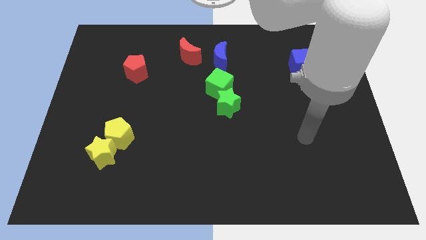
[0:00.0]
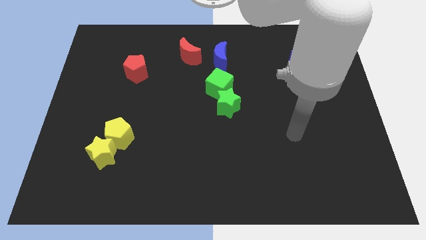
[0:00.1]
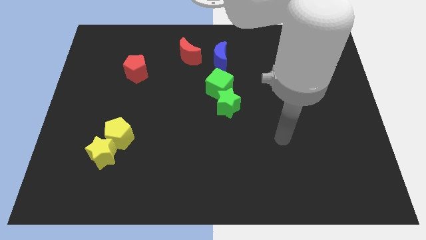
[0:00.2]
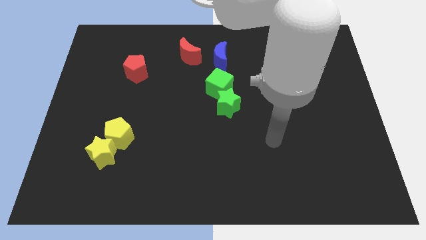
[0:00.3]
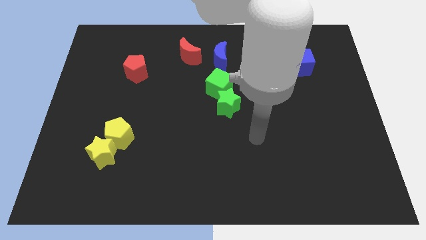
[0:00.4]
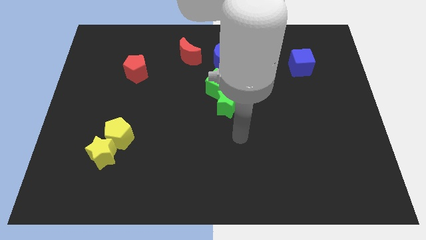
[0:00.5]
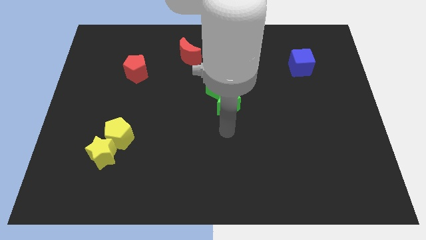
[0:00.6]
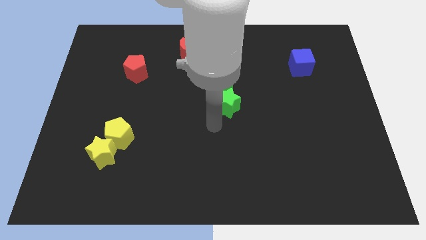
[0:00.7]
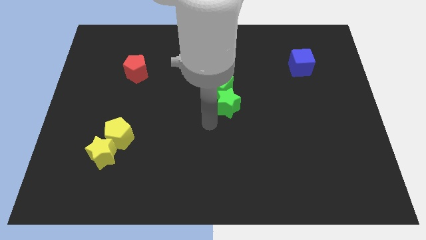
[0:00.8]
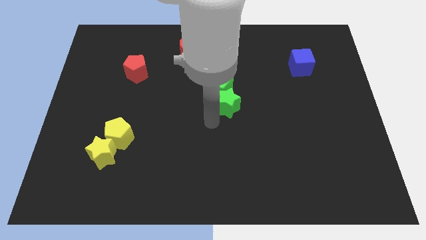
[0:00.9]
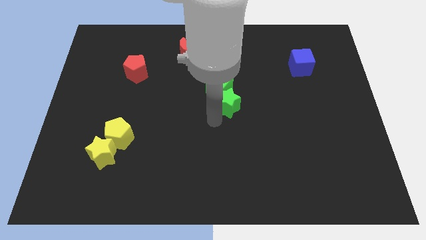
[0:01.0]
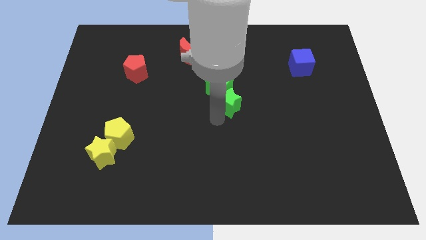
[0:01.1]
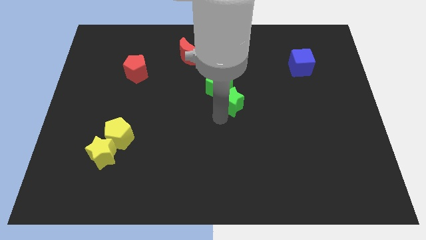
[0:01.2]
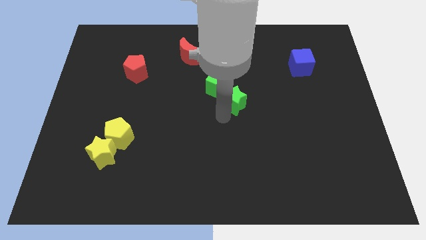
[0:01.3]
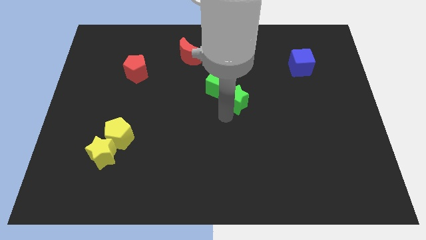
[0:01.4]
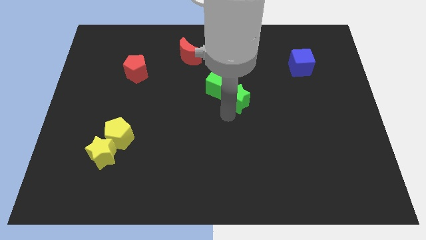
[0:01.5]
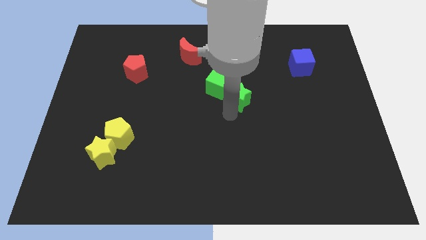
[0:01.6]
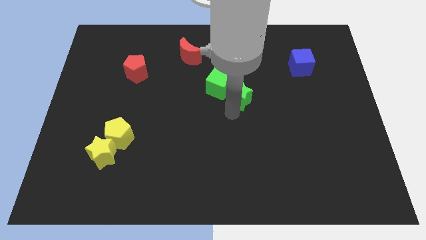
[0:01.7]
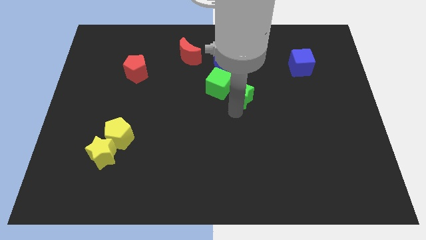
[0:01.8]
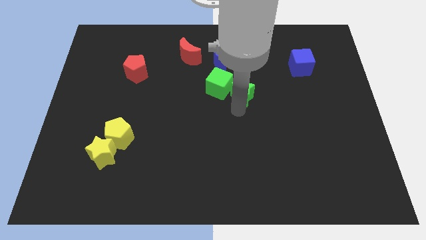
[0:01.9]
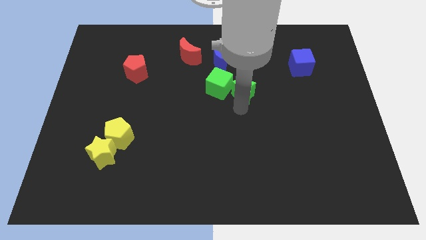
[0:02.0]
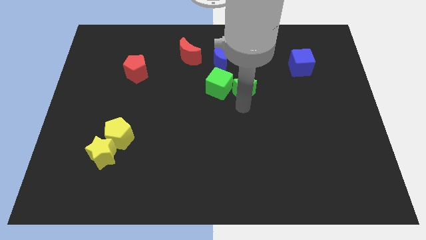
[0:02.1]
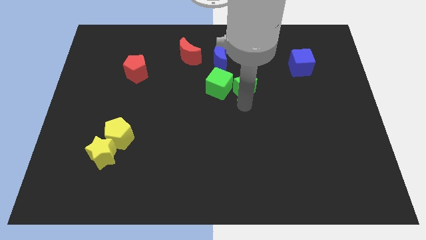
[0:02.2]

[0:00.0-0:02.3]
slide the green star upwards and to the right diagonally a little bit

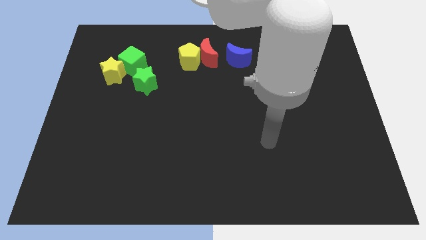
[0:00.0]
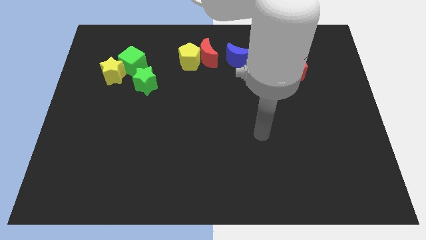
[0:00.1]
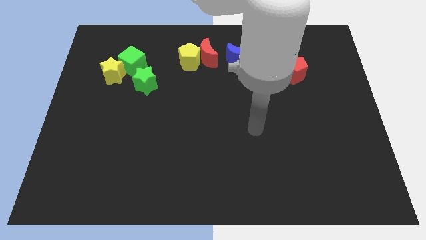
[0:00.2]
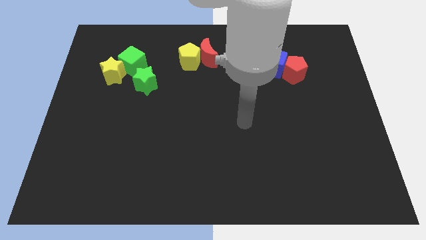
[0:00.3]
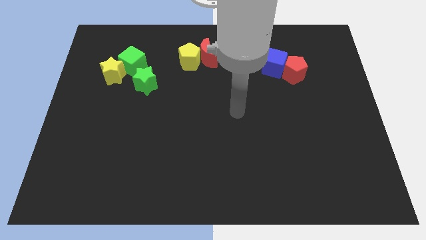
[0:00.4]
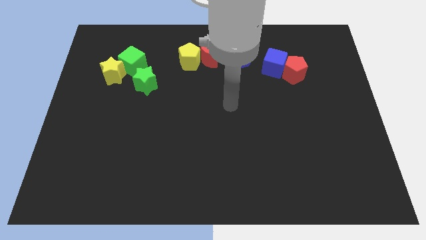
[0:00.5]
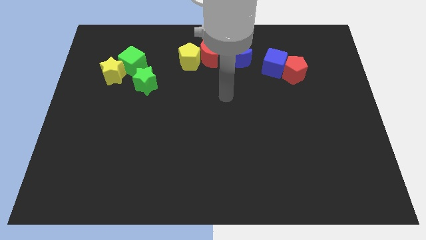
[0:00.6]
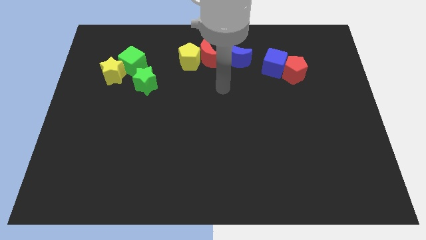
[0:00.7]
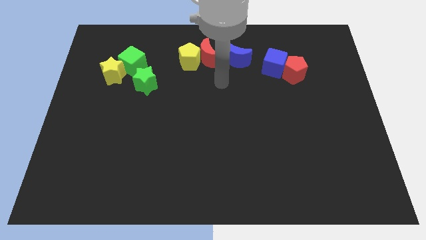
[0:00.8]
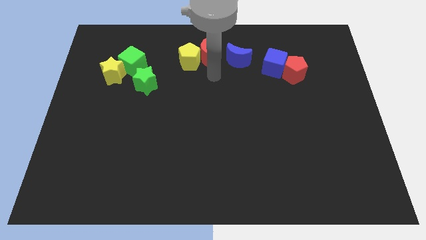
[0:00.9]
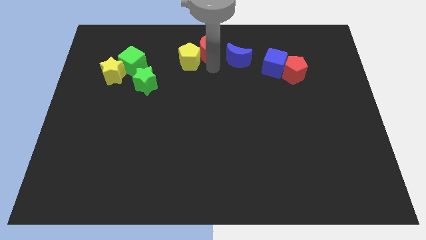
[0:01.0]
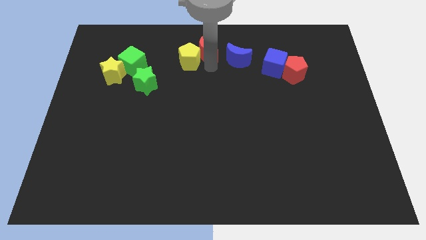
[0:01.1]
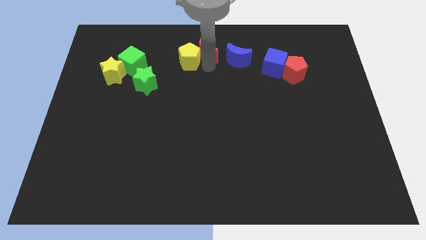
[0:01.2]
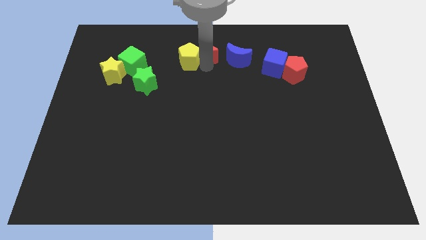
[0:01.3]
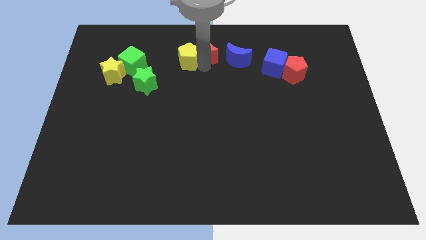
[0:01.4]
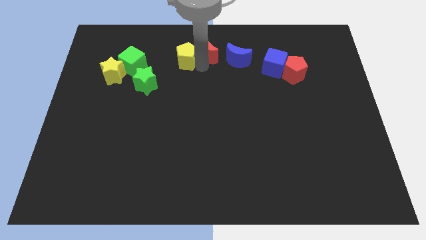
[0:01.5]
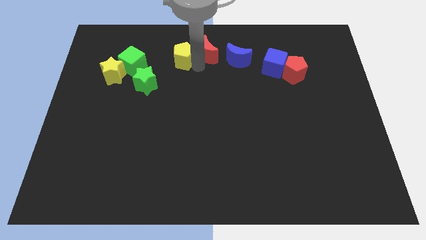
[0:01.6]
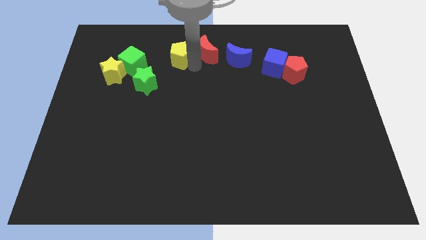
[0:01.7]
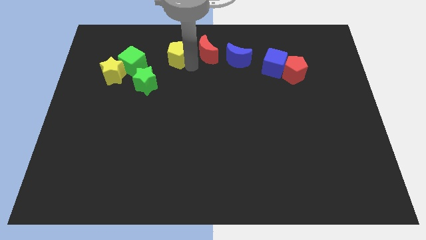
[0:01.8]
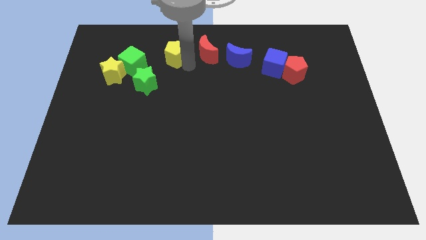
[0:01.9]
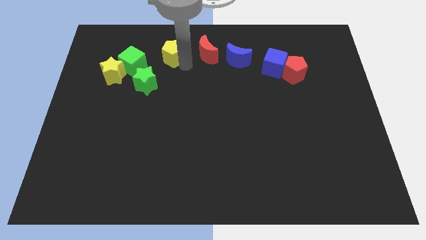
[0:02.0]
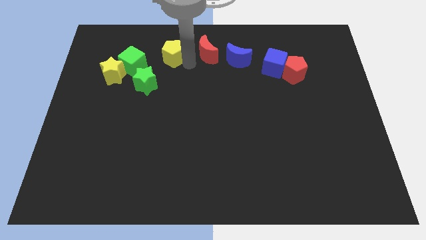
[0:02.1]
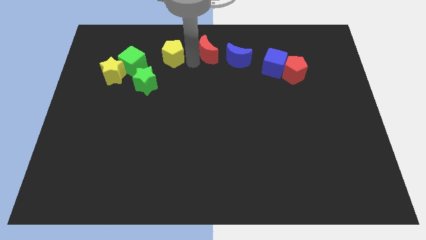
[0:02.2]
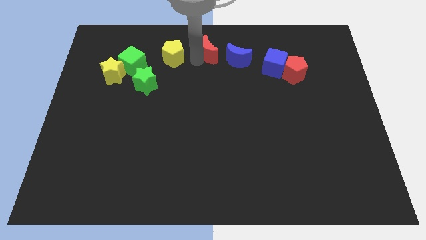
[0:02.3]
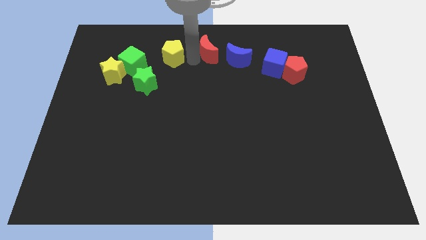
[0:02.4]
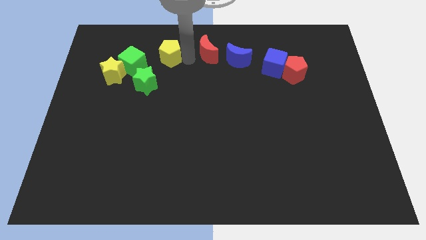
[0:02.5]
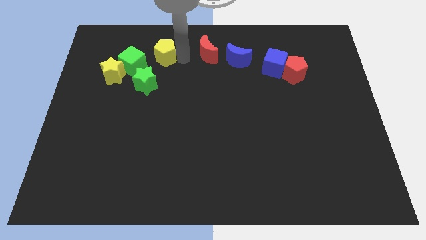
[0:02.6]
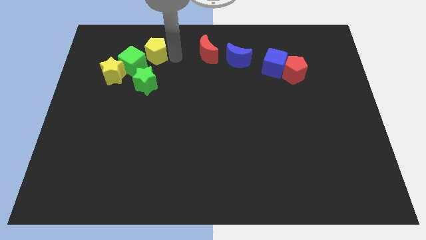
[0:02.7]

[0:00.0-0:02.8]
slide the yellow pentagon to the left a little

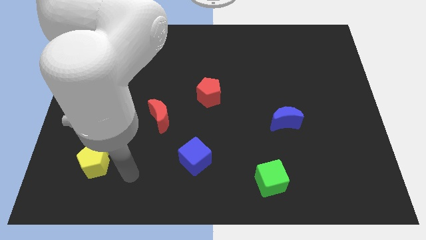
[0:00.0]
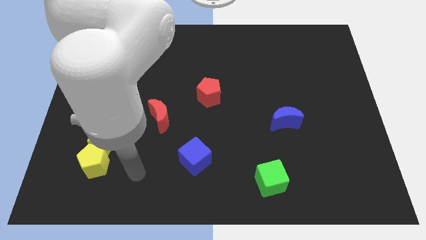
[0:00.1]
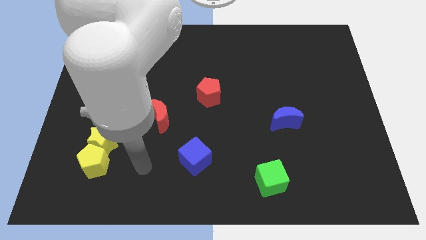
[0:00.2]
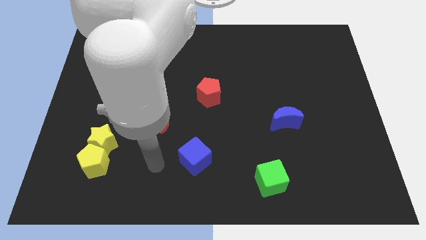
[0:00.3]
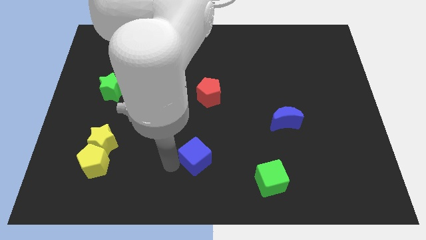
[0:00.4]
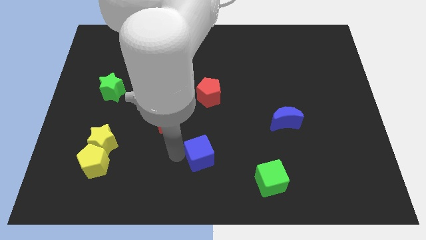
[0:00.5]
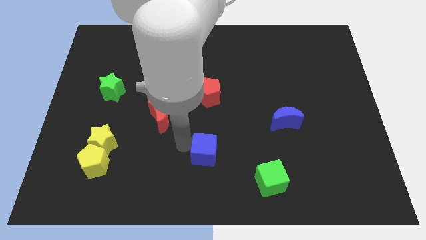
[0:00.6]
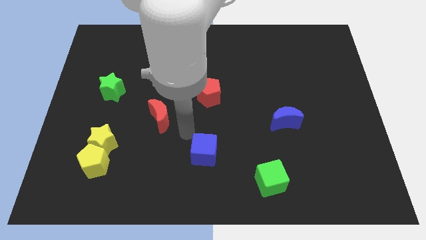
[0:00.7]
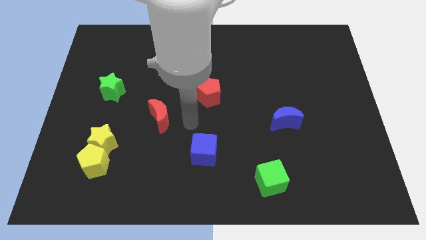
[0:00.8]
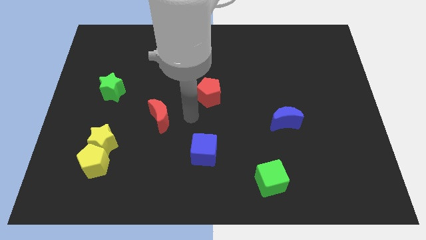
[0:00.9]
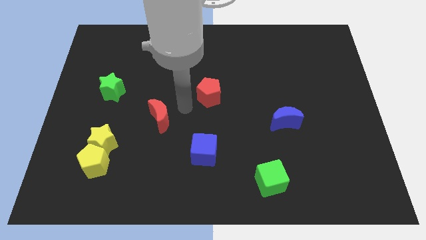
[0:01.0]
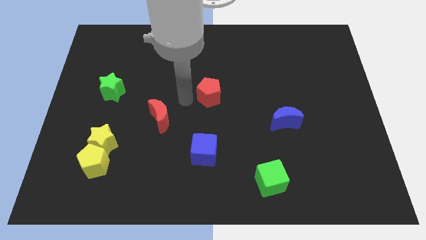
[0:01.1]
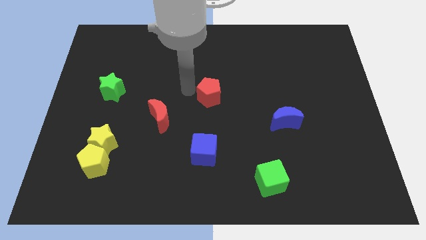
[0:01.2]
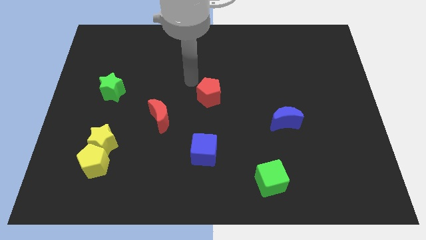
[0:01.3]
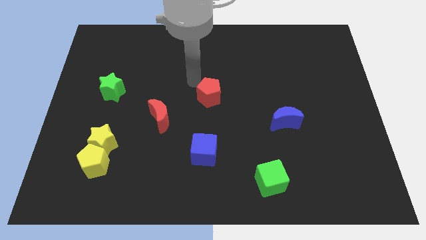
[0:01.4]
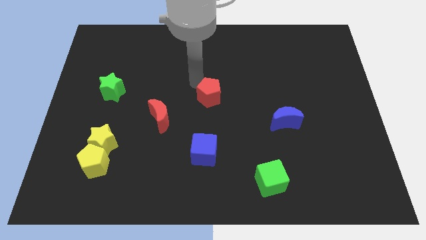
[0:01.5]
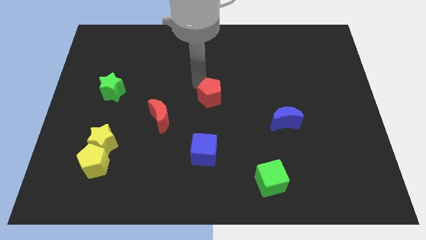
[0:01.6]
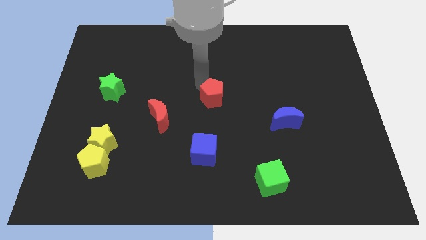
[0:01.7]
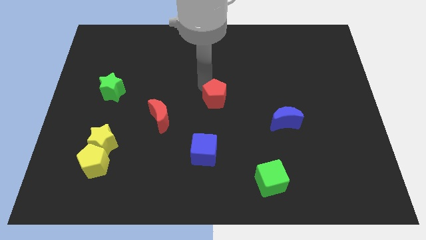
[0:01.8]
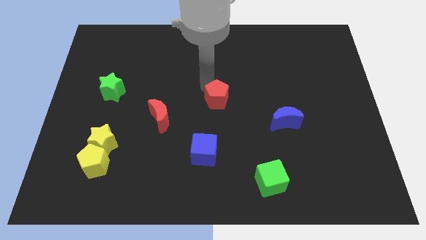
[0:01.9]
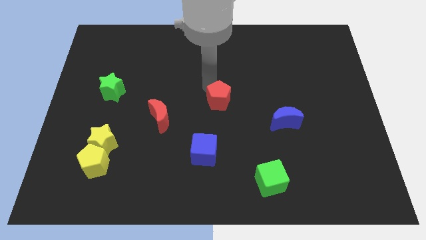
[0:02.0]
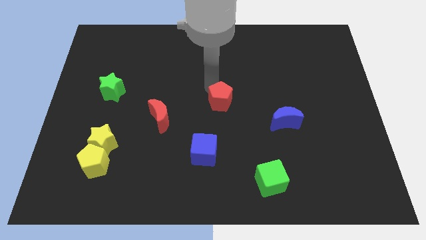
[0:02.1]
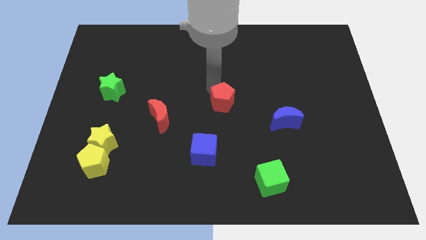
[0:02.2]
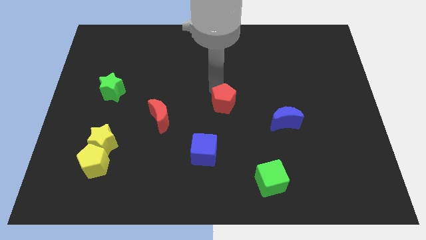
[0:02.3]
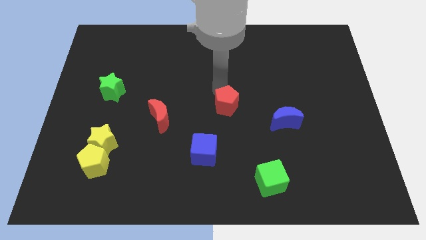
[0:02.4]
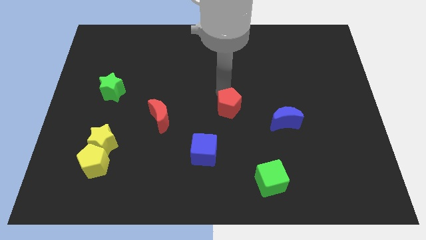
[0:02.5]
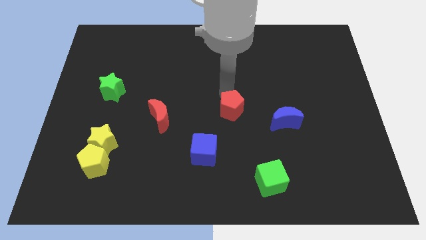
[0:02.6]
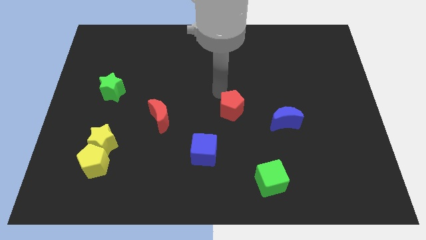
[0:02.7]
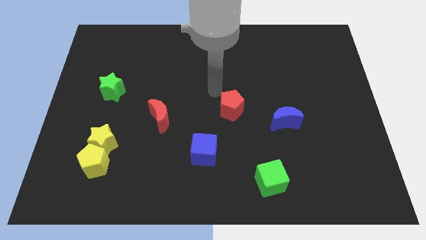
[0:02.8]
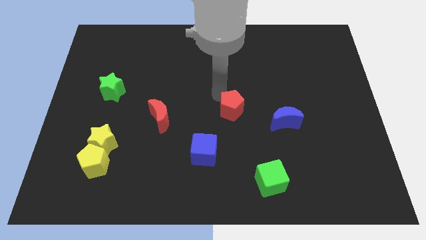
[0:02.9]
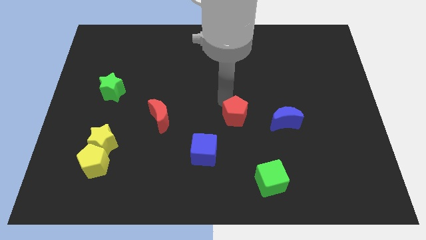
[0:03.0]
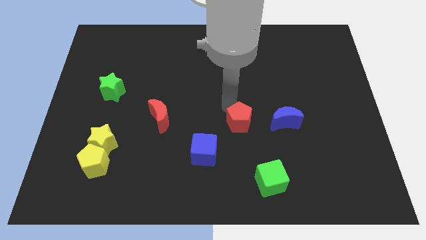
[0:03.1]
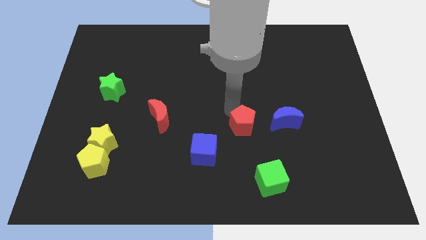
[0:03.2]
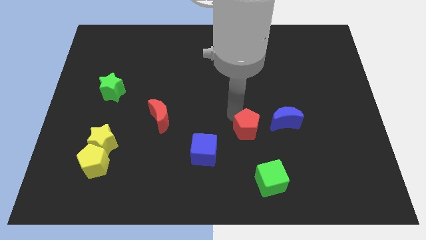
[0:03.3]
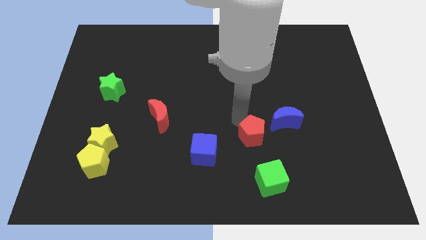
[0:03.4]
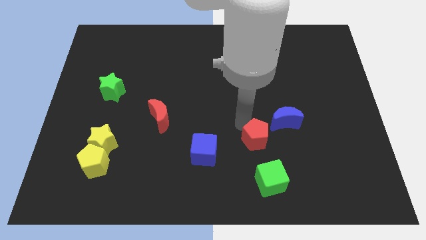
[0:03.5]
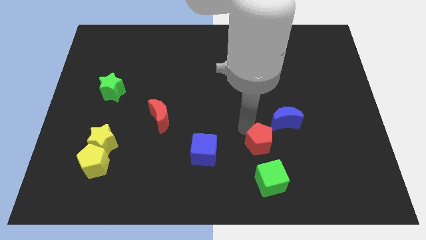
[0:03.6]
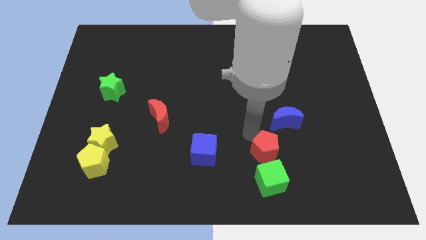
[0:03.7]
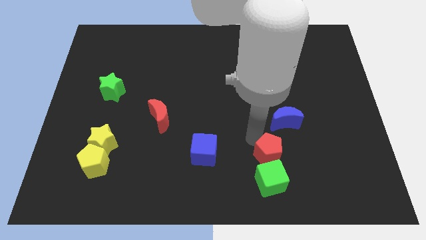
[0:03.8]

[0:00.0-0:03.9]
move the red pentagon down and right diagonally
